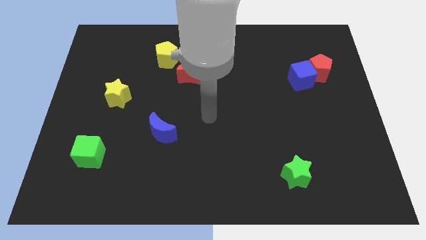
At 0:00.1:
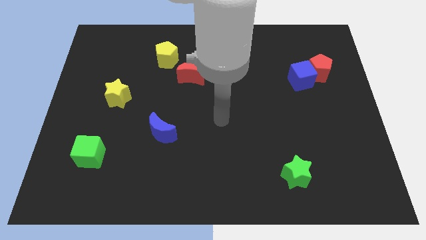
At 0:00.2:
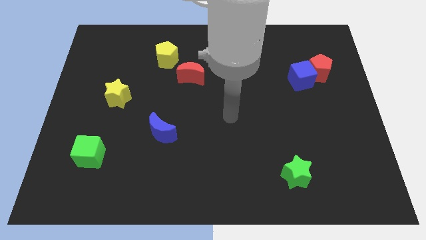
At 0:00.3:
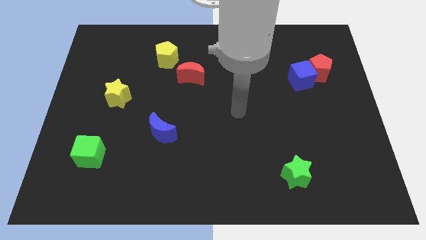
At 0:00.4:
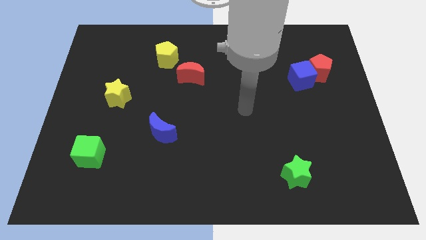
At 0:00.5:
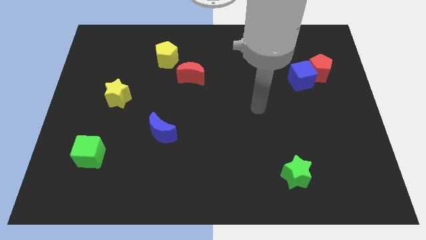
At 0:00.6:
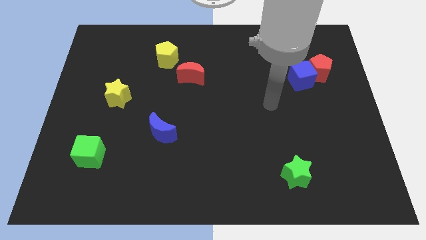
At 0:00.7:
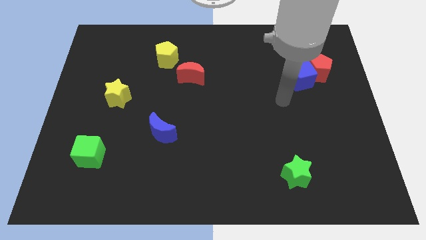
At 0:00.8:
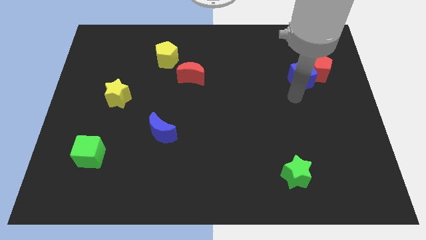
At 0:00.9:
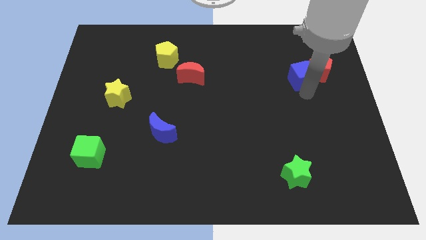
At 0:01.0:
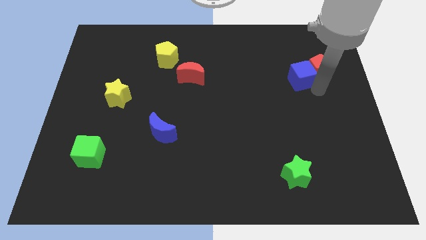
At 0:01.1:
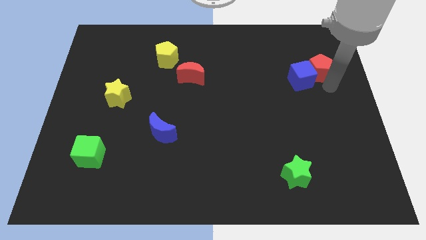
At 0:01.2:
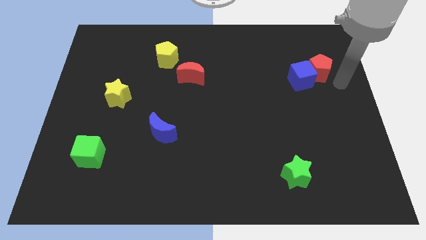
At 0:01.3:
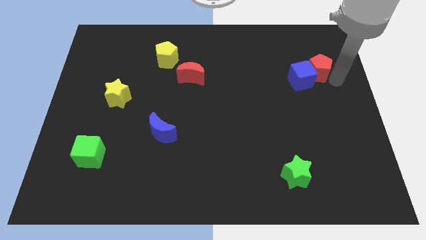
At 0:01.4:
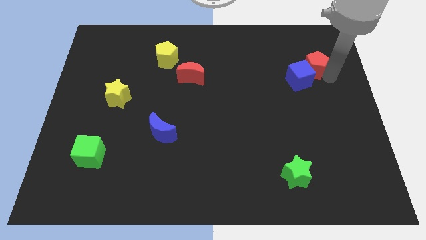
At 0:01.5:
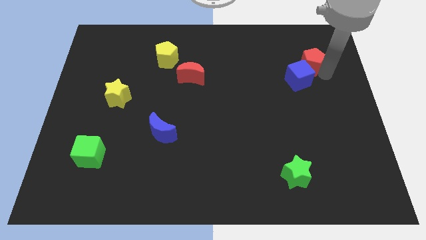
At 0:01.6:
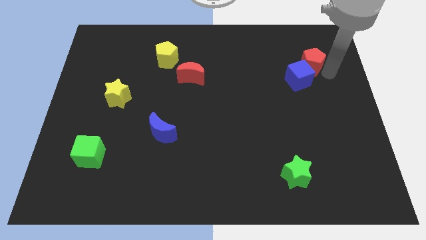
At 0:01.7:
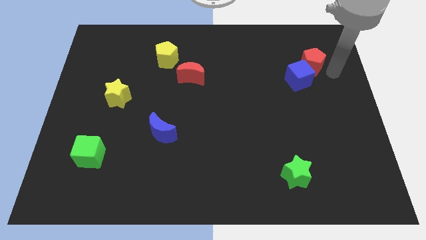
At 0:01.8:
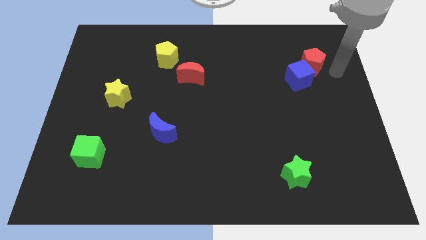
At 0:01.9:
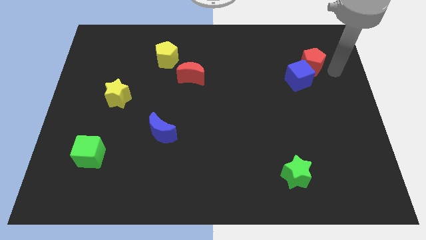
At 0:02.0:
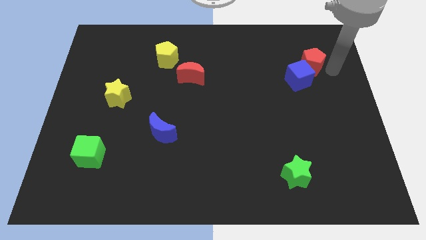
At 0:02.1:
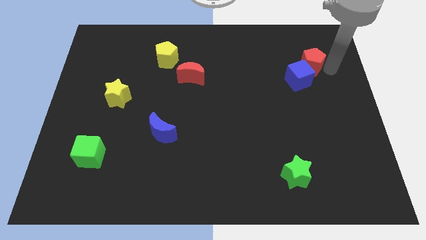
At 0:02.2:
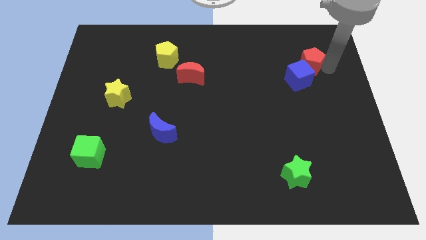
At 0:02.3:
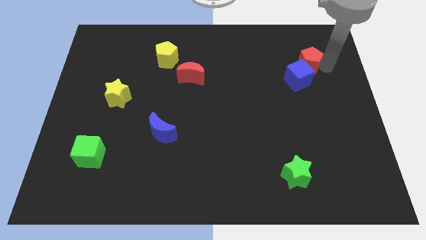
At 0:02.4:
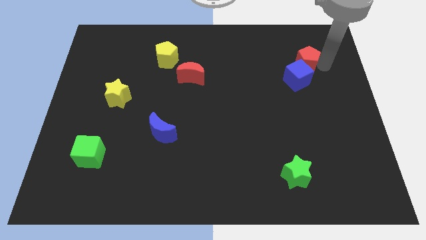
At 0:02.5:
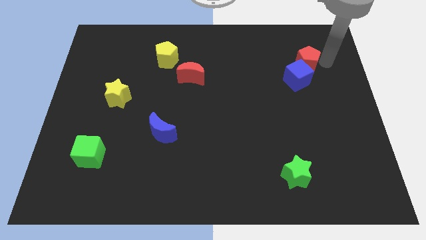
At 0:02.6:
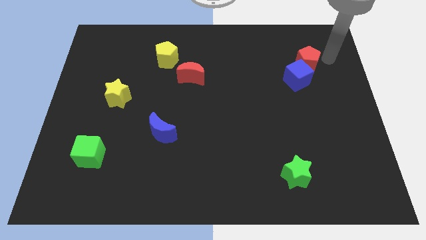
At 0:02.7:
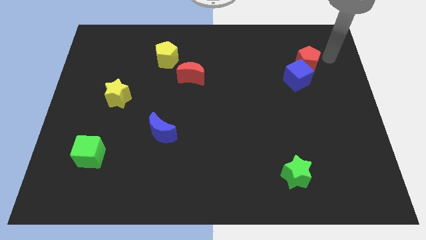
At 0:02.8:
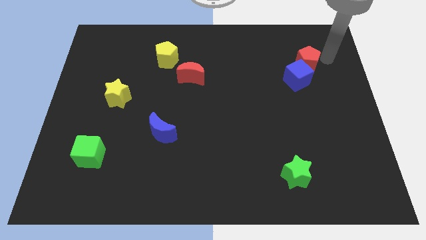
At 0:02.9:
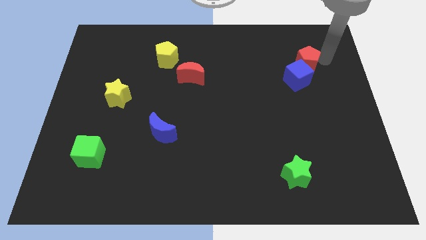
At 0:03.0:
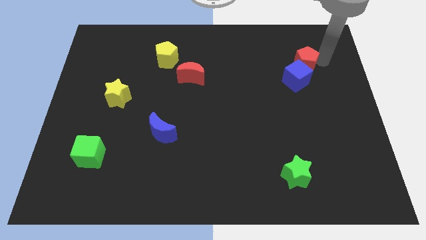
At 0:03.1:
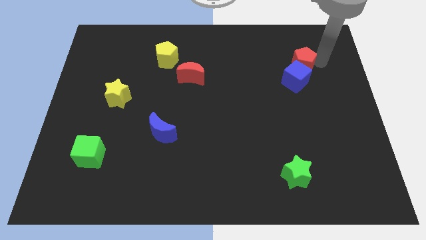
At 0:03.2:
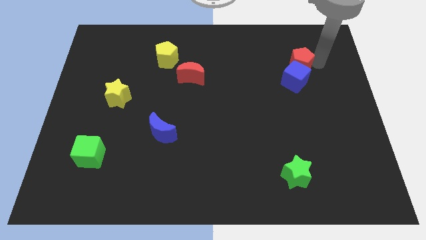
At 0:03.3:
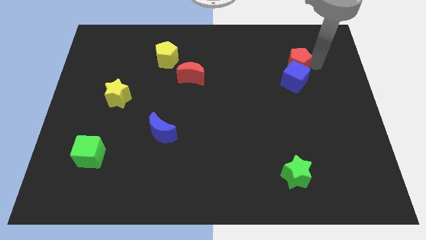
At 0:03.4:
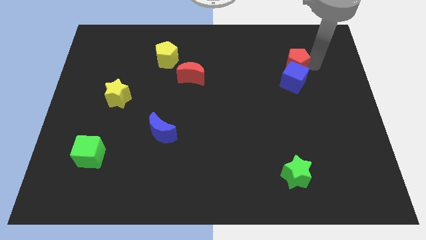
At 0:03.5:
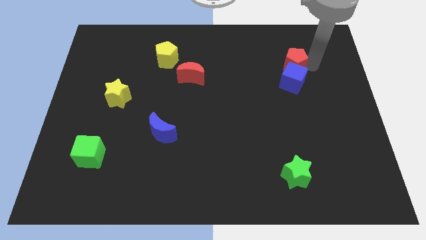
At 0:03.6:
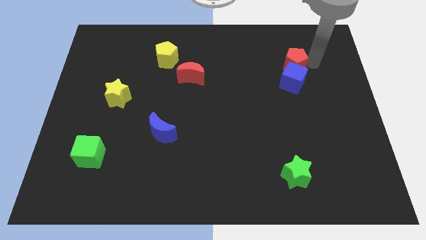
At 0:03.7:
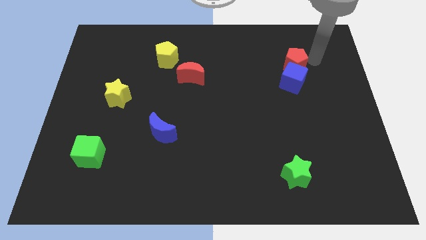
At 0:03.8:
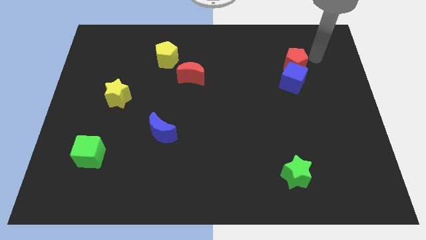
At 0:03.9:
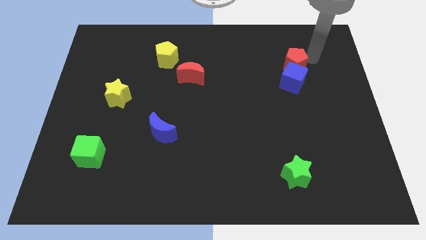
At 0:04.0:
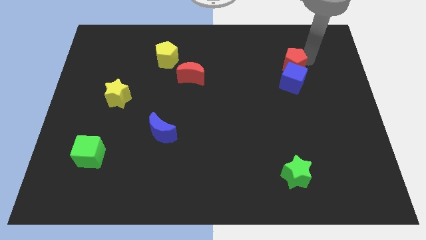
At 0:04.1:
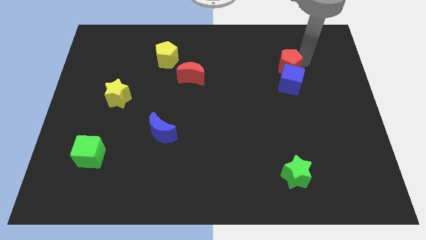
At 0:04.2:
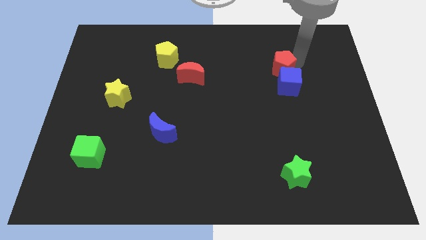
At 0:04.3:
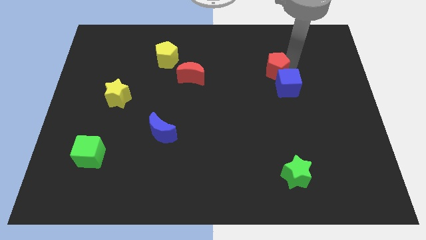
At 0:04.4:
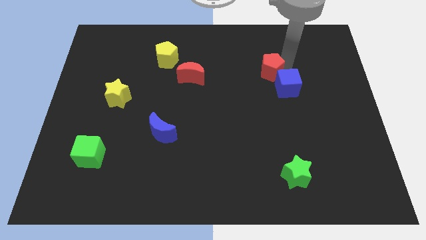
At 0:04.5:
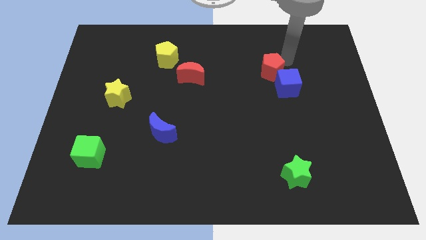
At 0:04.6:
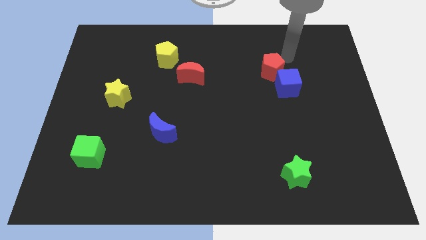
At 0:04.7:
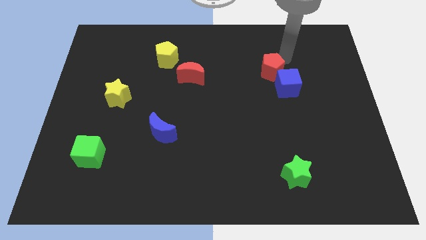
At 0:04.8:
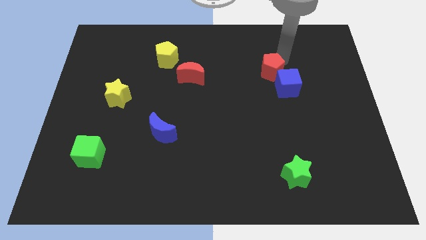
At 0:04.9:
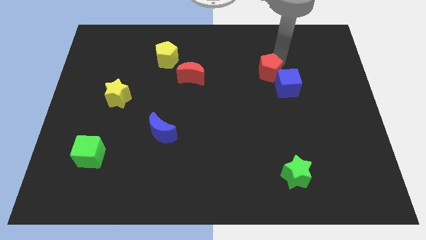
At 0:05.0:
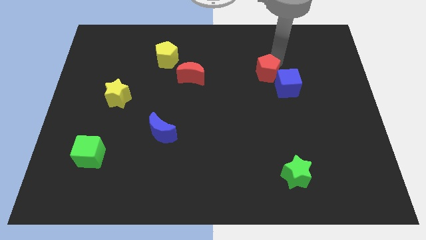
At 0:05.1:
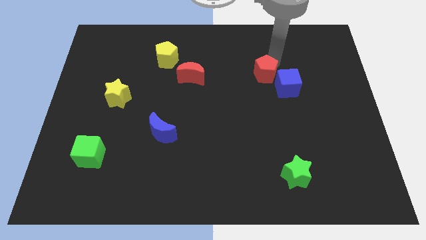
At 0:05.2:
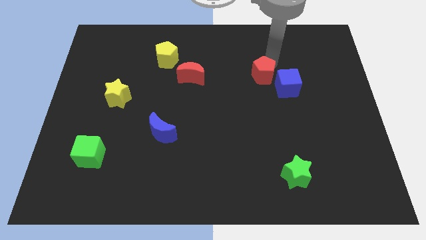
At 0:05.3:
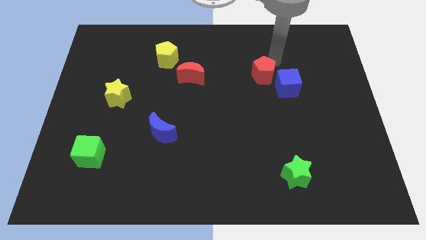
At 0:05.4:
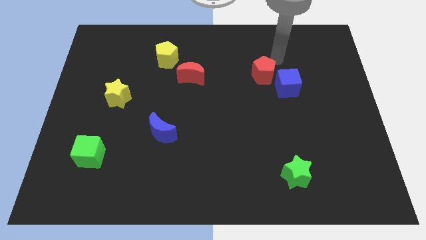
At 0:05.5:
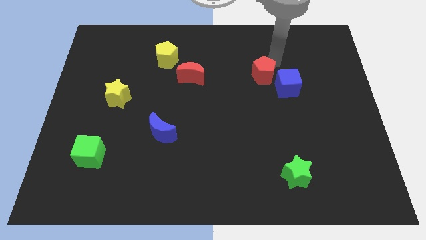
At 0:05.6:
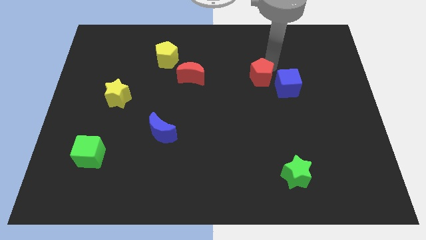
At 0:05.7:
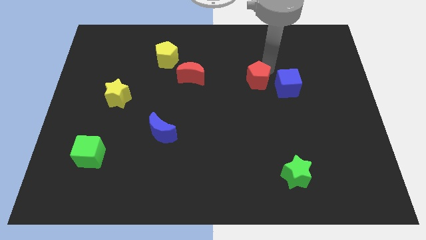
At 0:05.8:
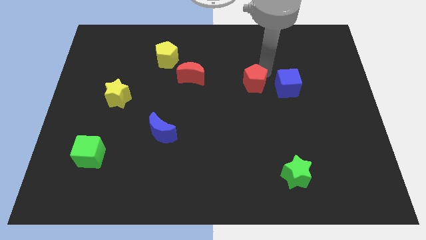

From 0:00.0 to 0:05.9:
move the red pentagon to the middle of the board
